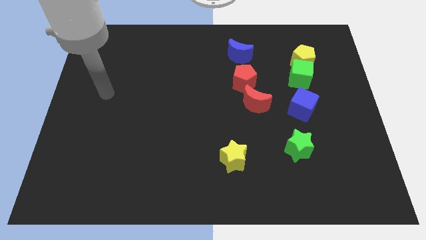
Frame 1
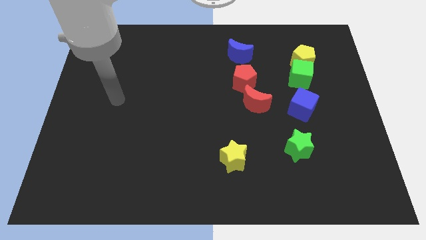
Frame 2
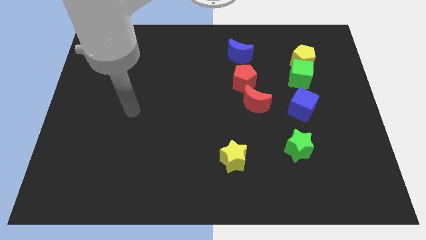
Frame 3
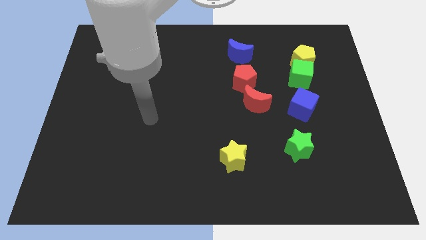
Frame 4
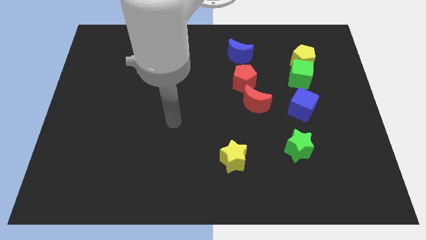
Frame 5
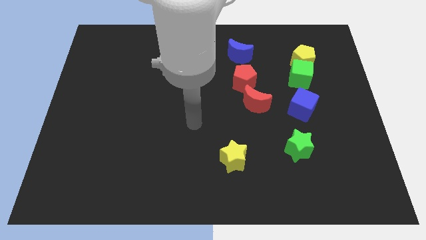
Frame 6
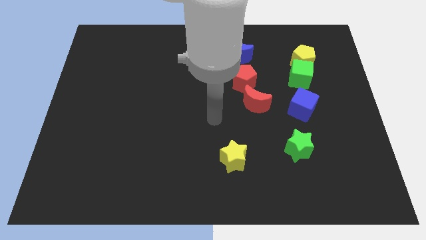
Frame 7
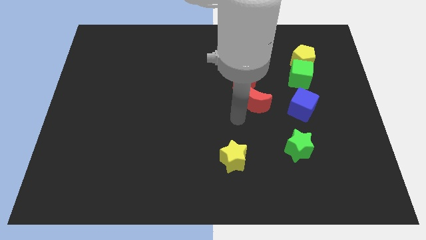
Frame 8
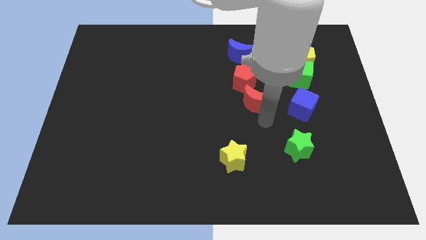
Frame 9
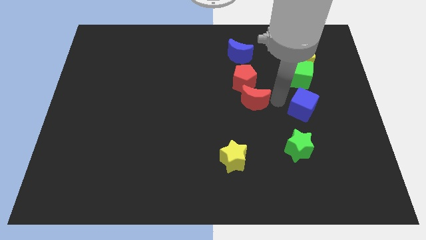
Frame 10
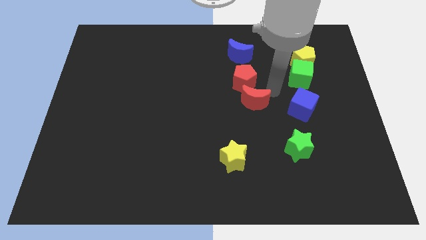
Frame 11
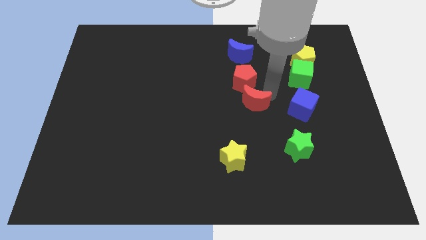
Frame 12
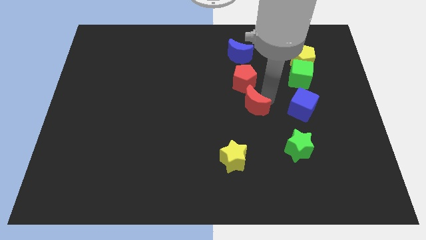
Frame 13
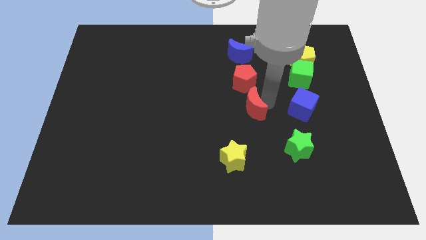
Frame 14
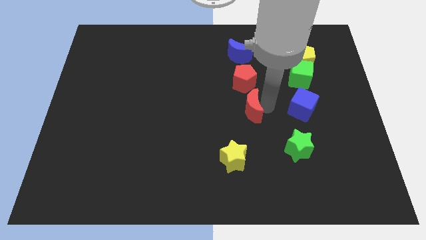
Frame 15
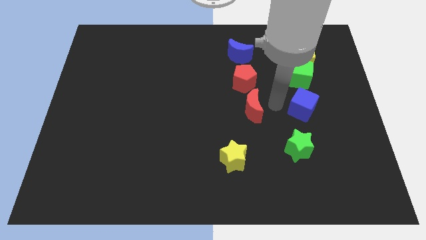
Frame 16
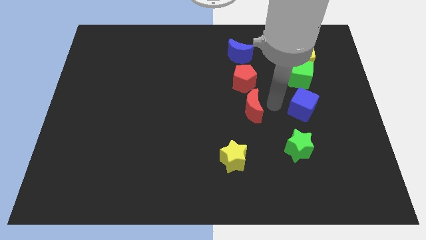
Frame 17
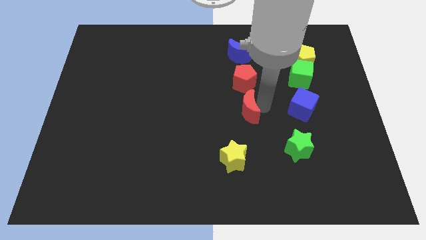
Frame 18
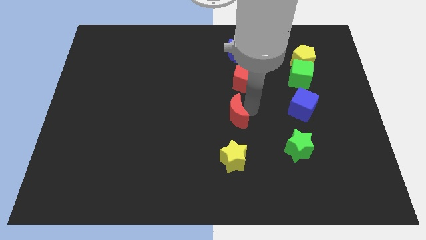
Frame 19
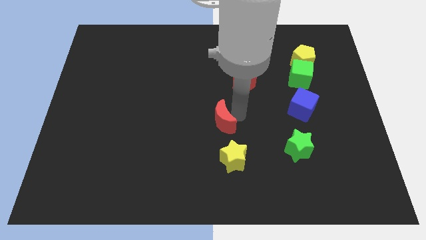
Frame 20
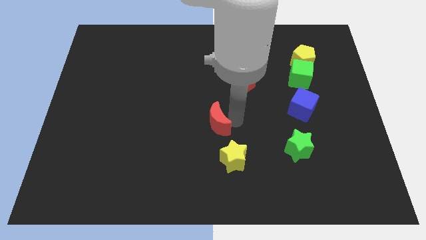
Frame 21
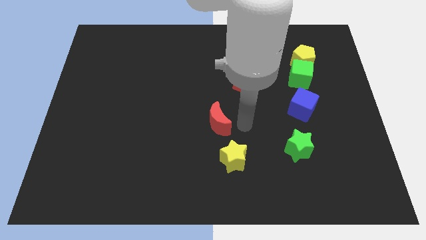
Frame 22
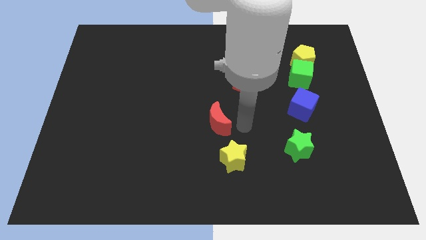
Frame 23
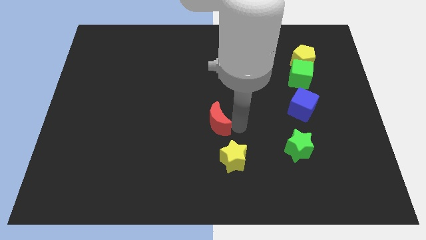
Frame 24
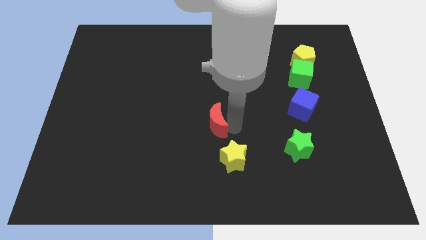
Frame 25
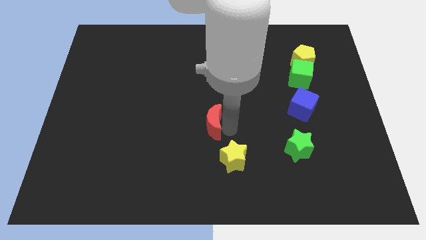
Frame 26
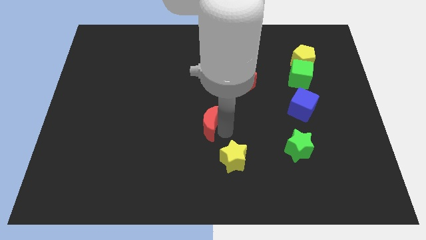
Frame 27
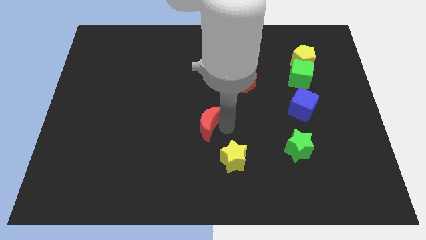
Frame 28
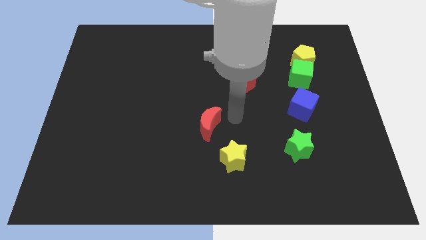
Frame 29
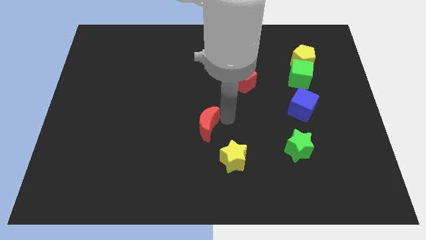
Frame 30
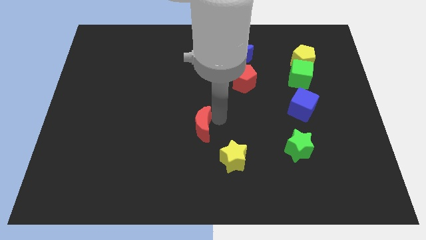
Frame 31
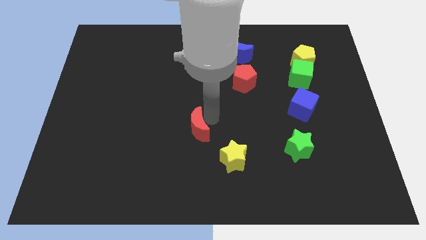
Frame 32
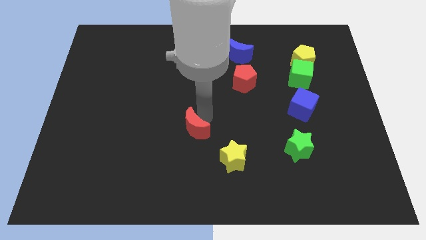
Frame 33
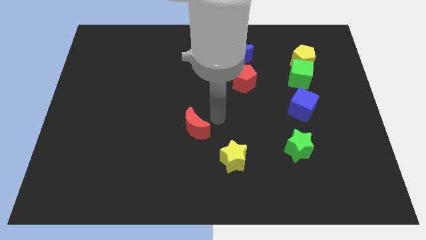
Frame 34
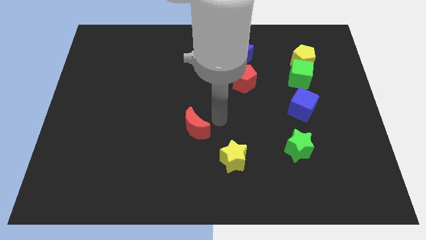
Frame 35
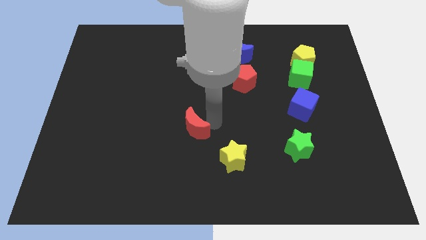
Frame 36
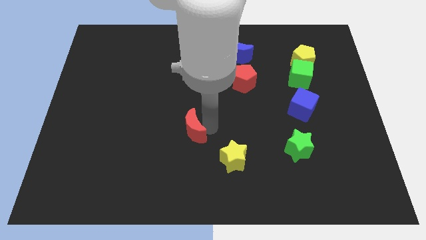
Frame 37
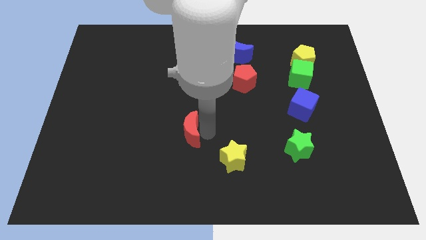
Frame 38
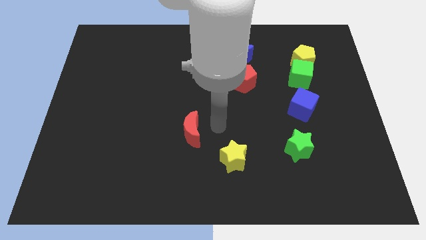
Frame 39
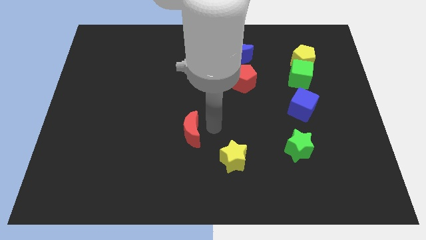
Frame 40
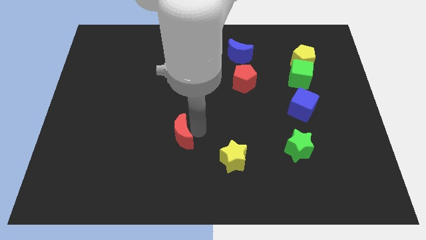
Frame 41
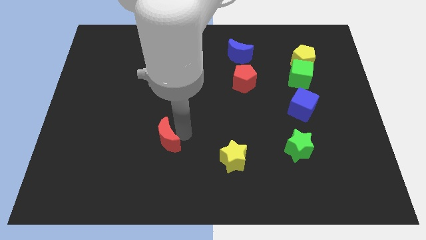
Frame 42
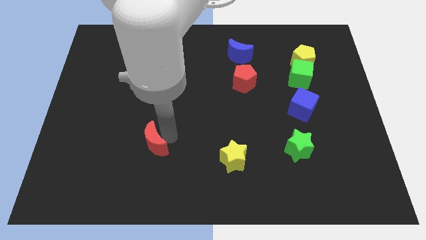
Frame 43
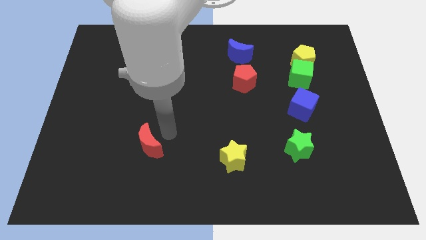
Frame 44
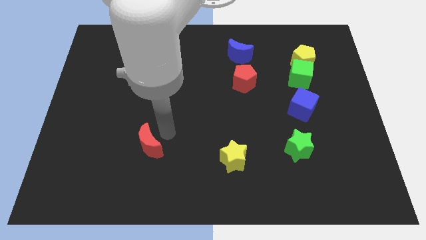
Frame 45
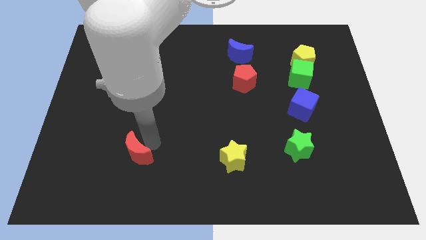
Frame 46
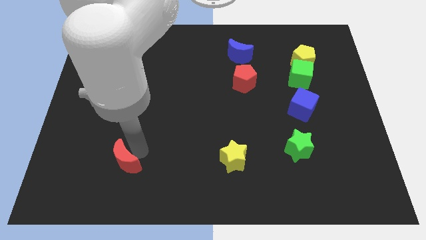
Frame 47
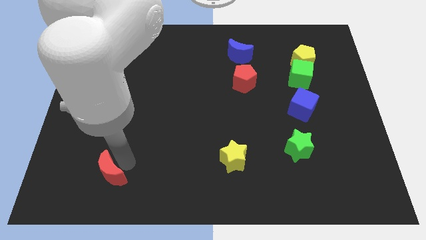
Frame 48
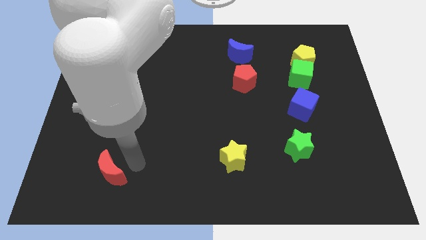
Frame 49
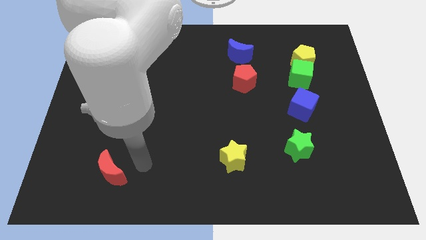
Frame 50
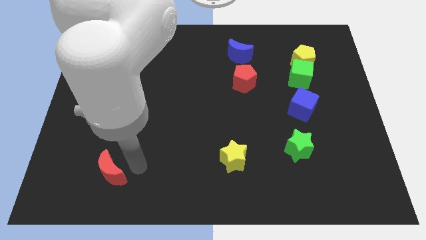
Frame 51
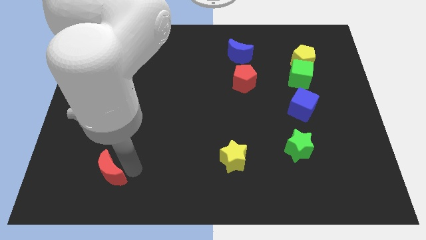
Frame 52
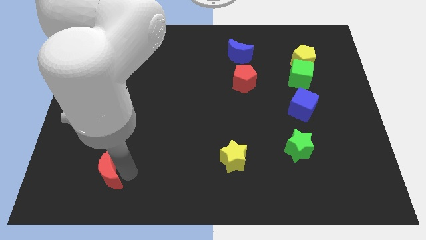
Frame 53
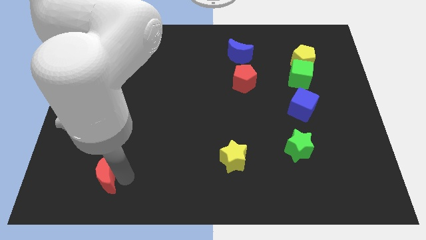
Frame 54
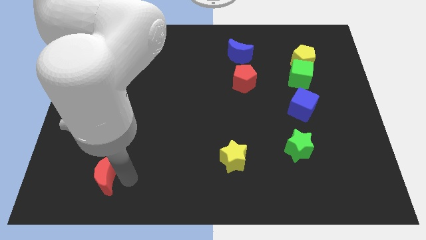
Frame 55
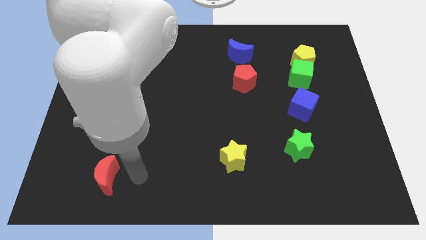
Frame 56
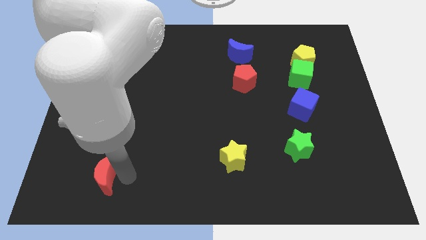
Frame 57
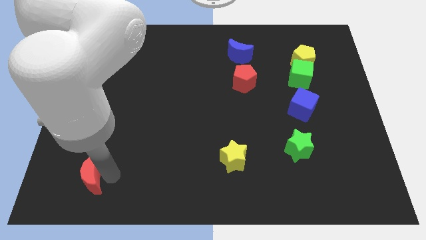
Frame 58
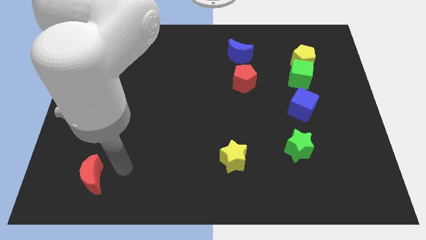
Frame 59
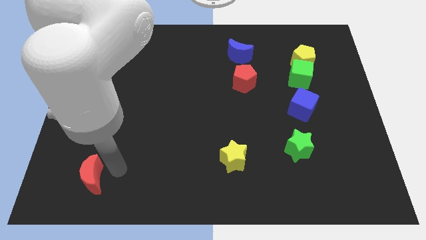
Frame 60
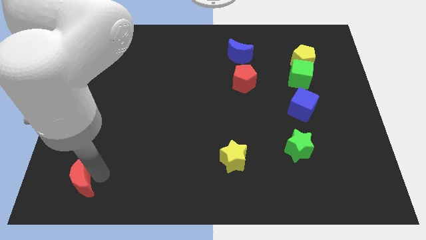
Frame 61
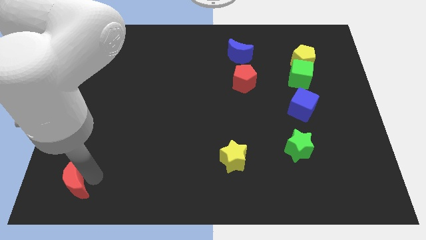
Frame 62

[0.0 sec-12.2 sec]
slide the red moon to the bottom left corner

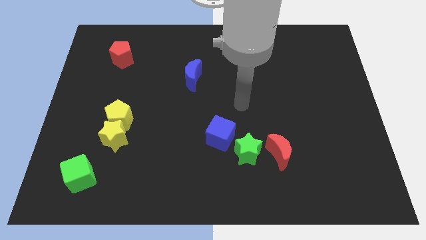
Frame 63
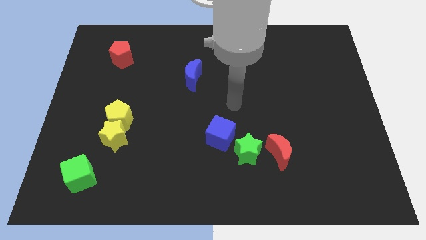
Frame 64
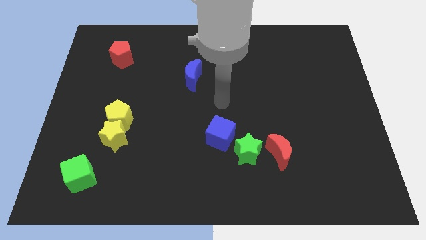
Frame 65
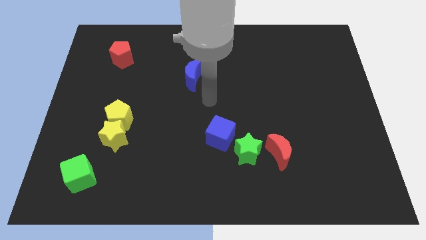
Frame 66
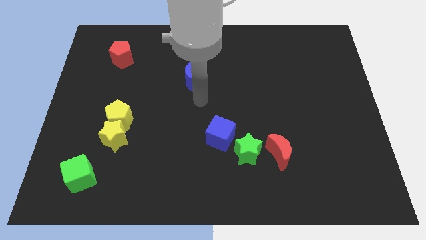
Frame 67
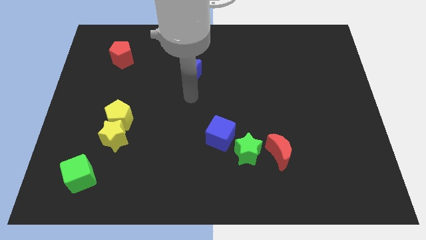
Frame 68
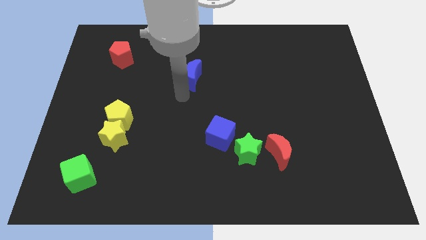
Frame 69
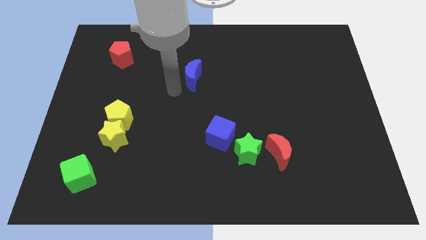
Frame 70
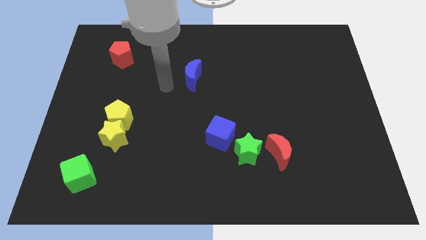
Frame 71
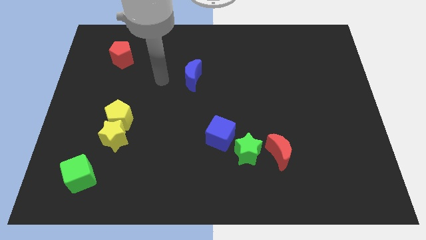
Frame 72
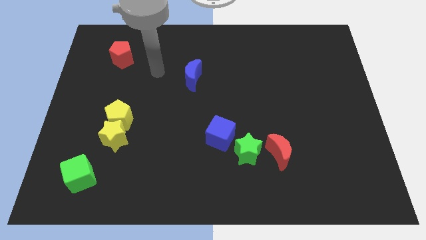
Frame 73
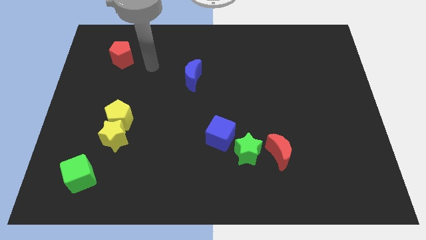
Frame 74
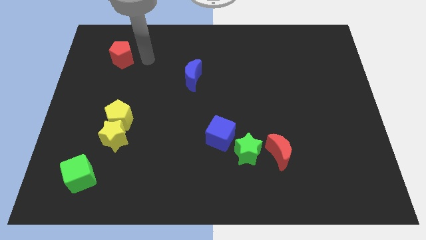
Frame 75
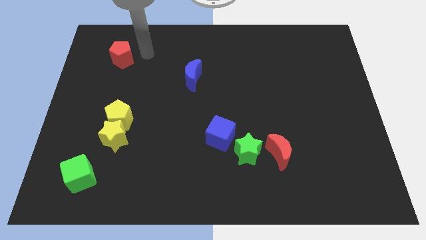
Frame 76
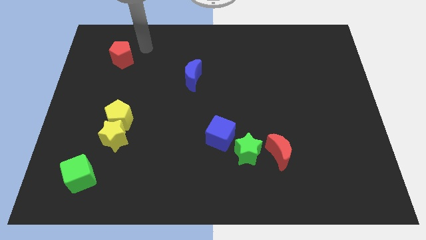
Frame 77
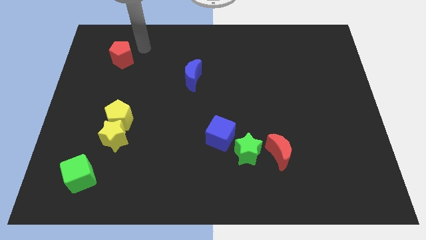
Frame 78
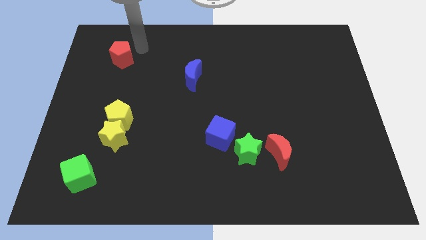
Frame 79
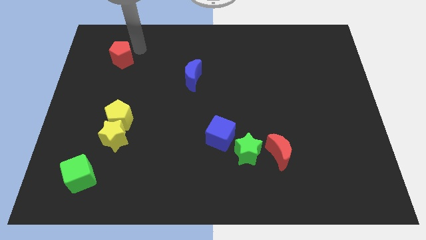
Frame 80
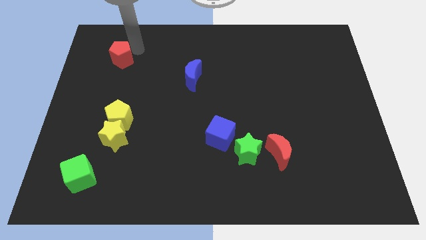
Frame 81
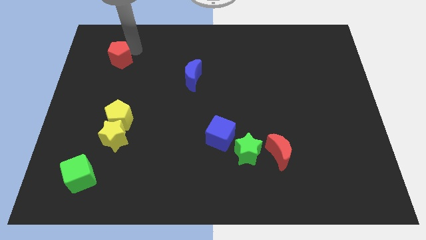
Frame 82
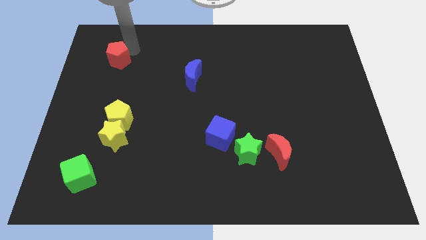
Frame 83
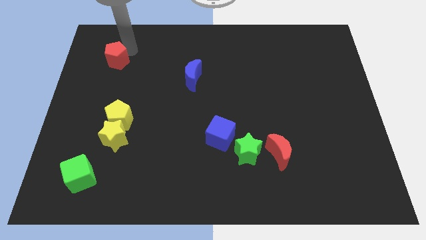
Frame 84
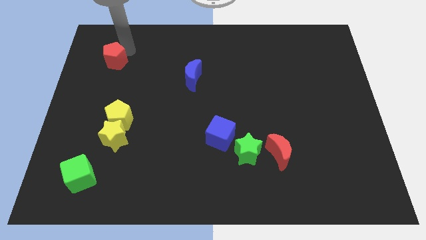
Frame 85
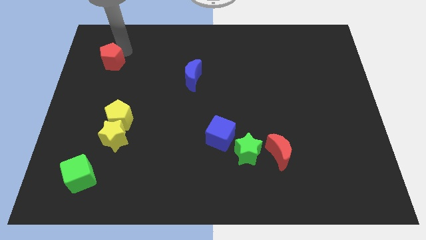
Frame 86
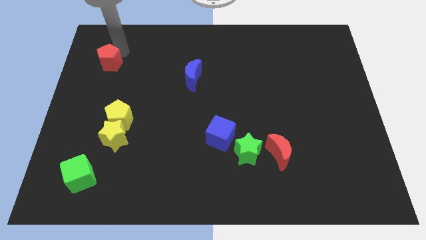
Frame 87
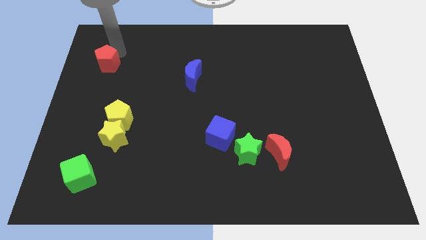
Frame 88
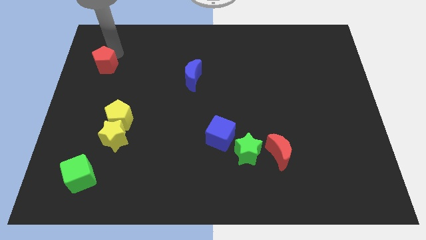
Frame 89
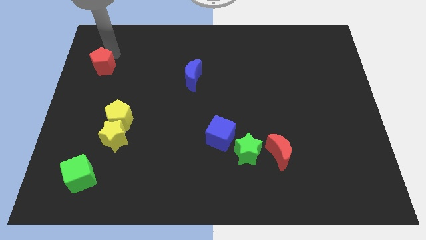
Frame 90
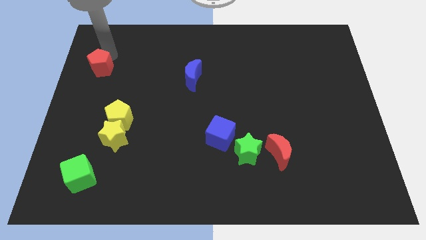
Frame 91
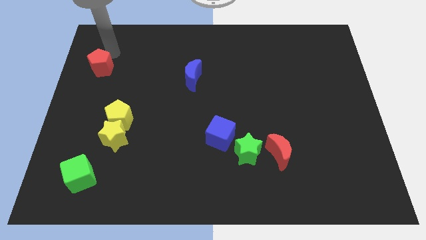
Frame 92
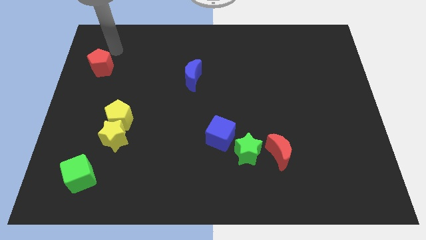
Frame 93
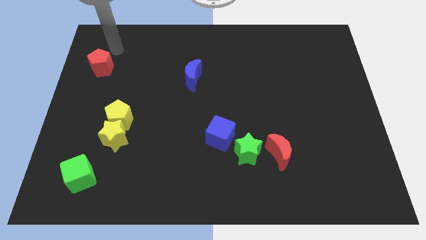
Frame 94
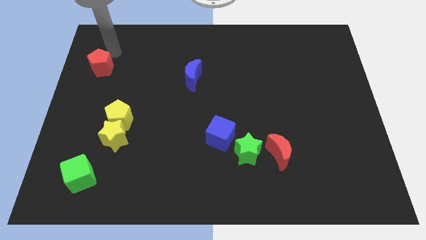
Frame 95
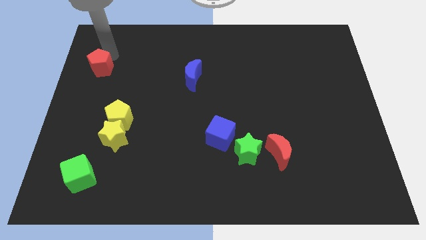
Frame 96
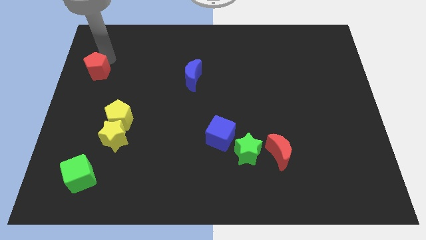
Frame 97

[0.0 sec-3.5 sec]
put the red pentagon to the left side
